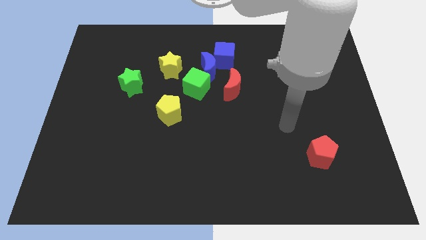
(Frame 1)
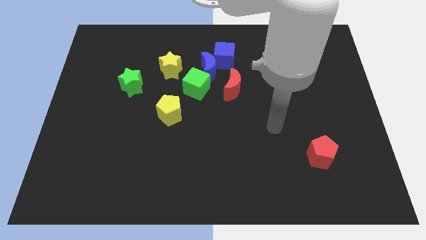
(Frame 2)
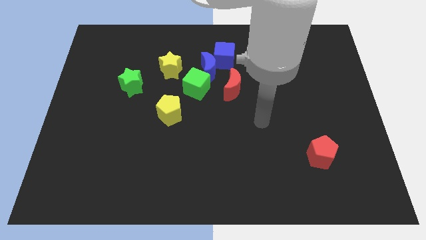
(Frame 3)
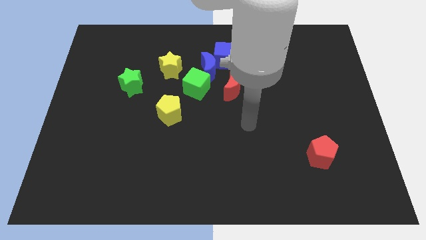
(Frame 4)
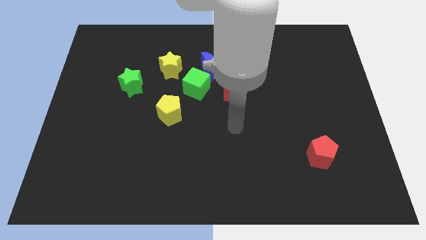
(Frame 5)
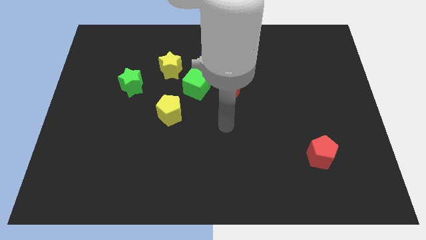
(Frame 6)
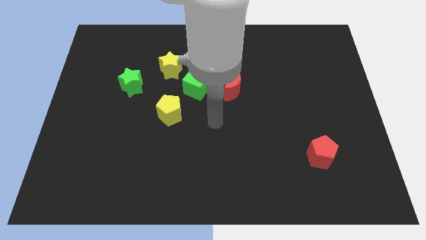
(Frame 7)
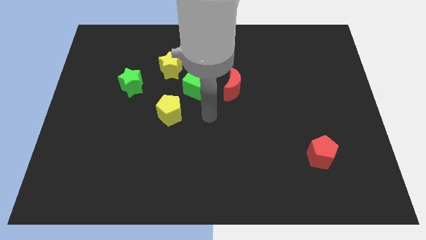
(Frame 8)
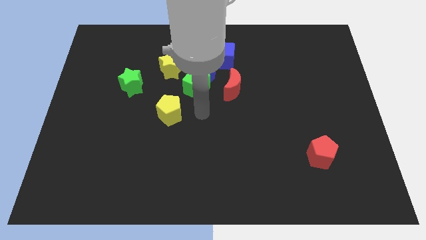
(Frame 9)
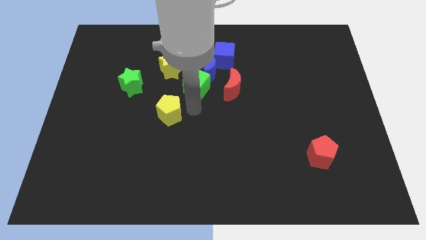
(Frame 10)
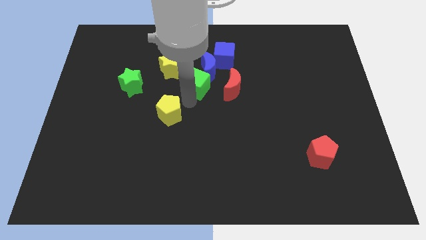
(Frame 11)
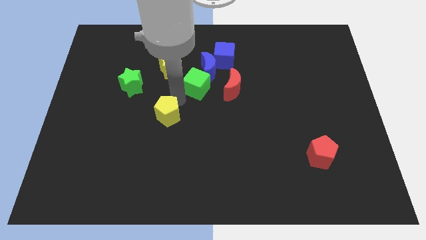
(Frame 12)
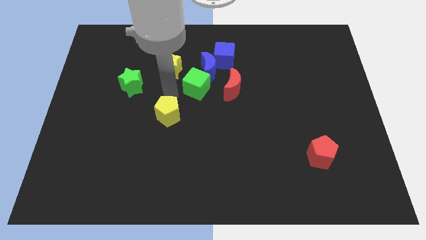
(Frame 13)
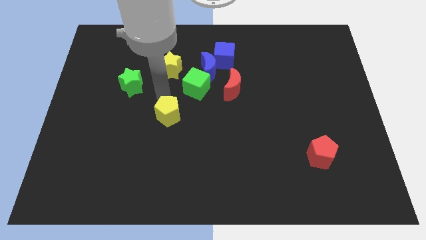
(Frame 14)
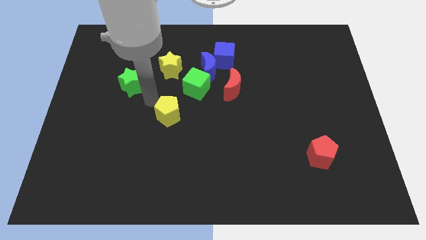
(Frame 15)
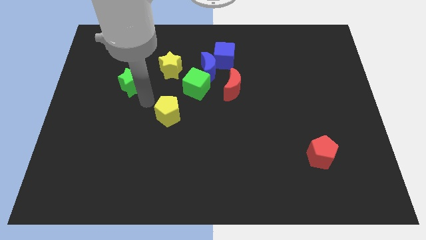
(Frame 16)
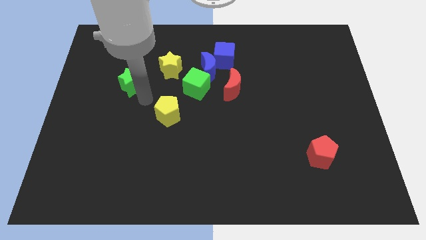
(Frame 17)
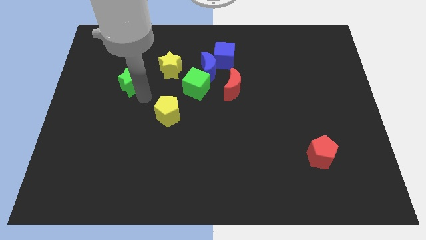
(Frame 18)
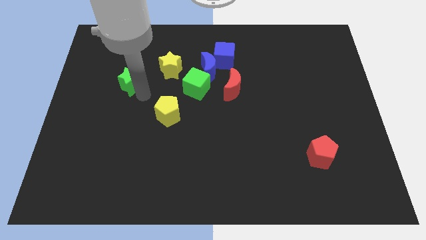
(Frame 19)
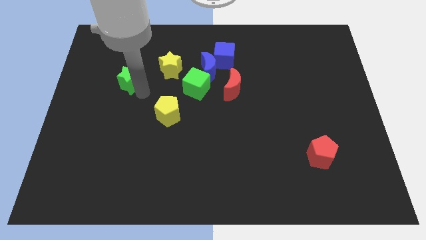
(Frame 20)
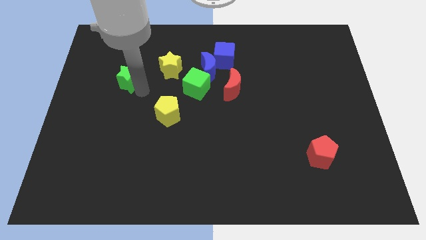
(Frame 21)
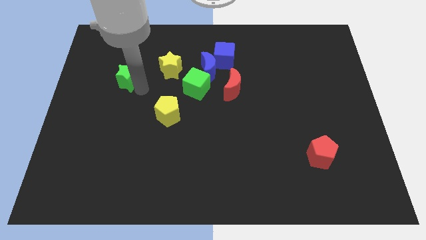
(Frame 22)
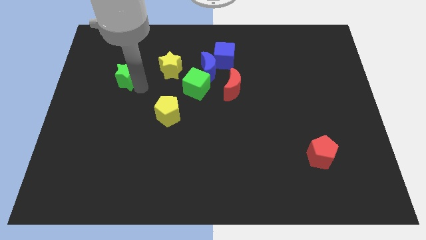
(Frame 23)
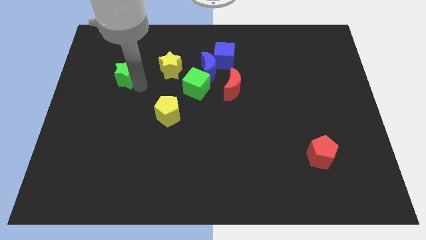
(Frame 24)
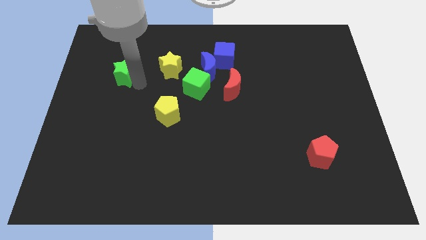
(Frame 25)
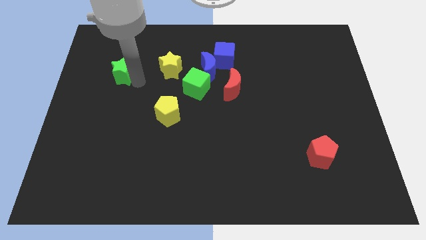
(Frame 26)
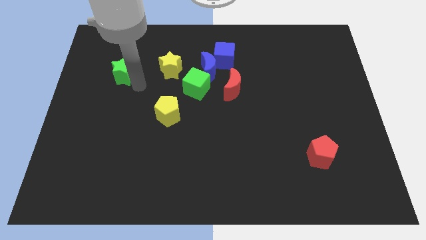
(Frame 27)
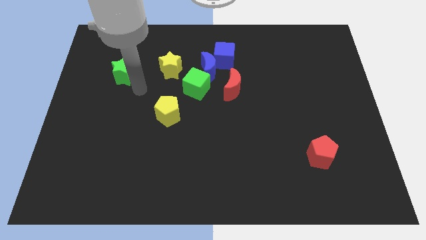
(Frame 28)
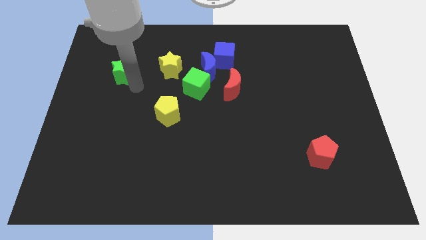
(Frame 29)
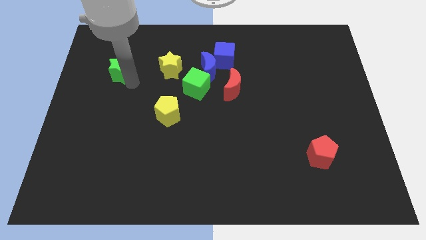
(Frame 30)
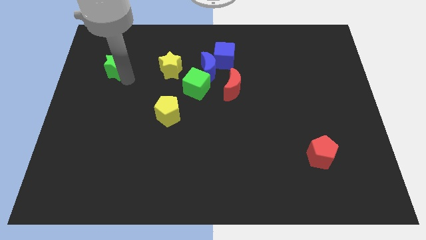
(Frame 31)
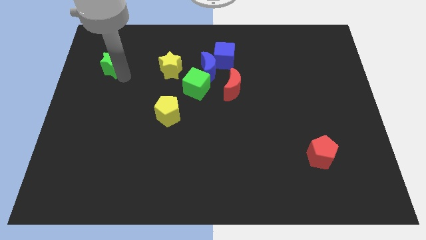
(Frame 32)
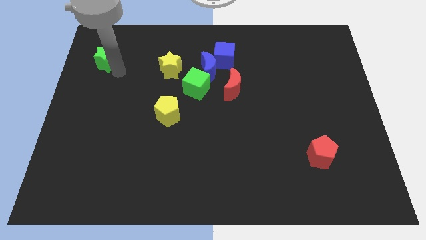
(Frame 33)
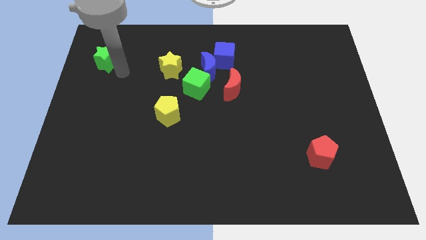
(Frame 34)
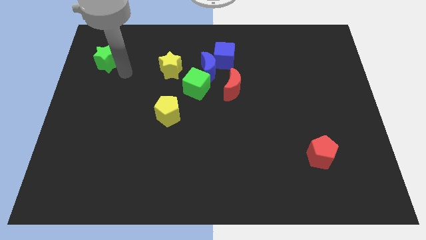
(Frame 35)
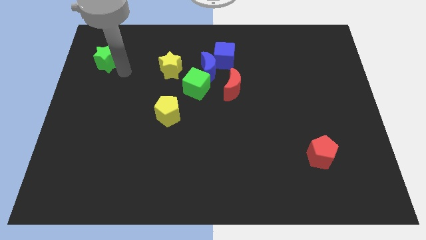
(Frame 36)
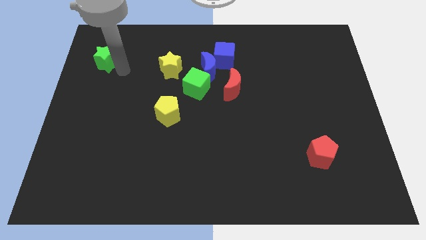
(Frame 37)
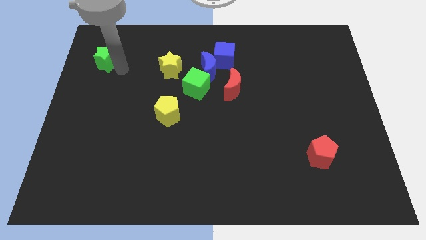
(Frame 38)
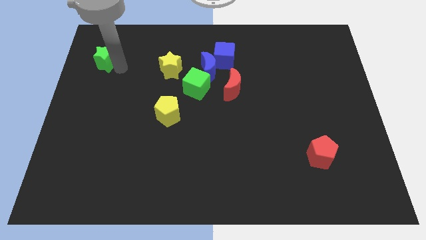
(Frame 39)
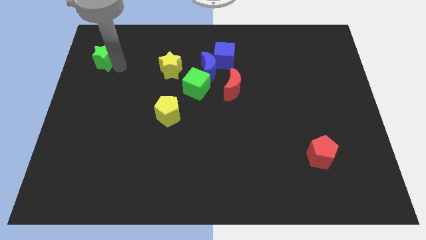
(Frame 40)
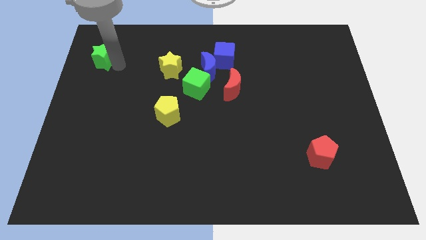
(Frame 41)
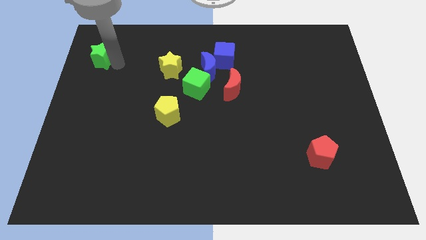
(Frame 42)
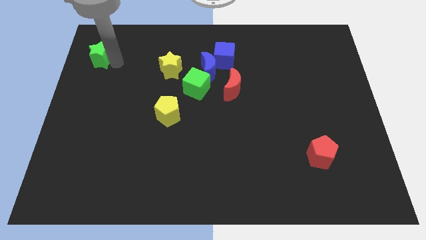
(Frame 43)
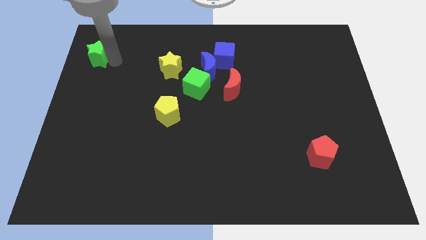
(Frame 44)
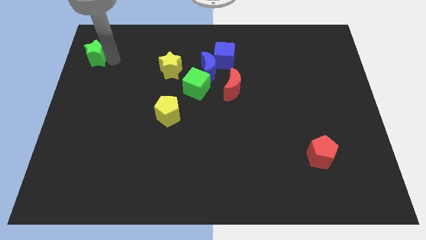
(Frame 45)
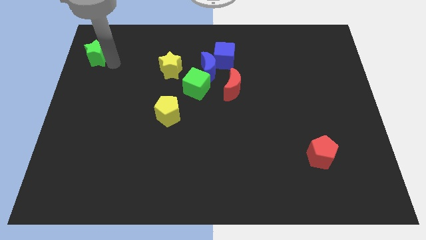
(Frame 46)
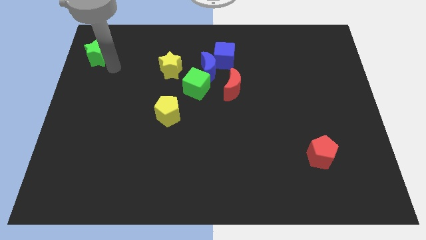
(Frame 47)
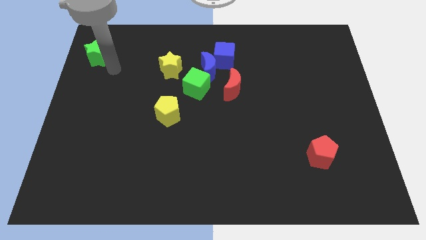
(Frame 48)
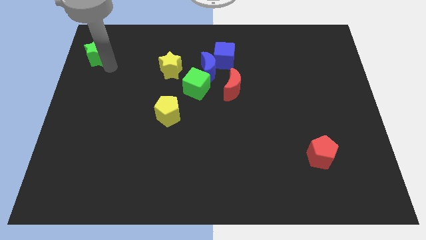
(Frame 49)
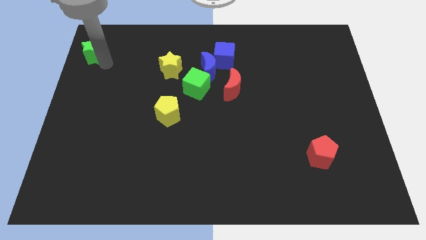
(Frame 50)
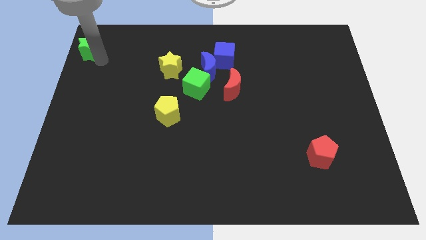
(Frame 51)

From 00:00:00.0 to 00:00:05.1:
slide the green star to the upper left corner

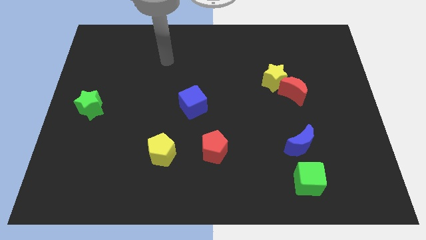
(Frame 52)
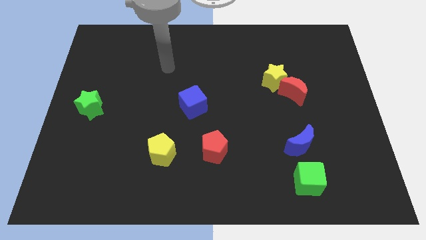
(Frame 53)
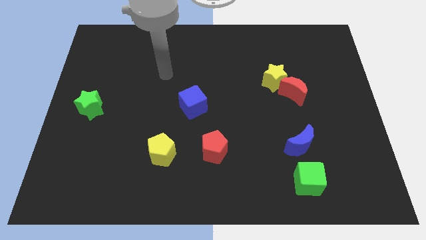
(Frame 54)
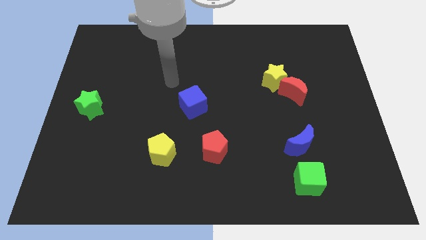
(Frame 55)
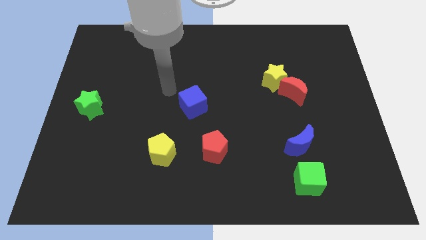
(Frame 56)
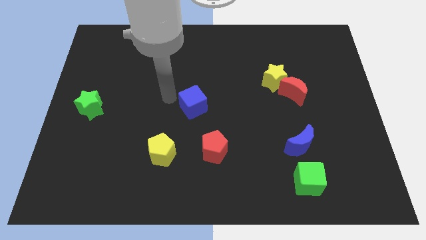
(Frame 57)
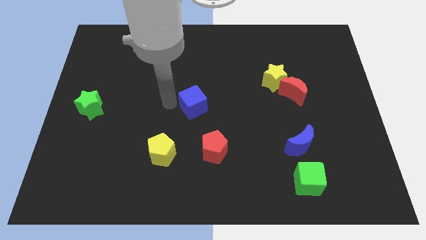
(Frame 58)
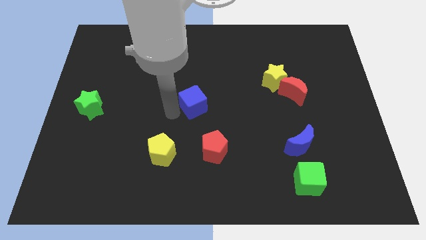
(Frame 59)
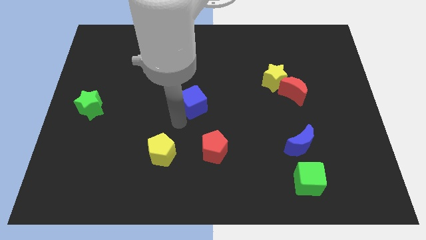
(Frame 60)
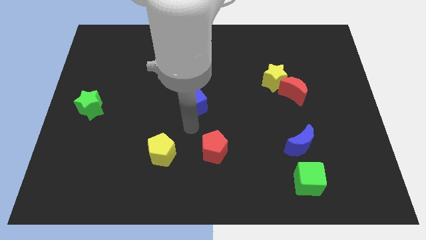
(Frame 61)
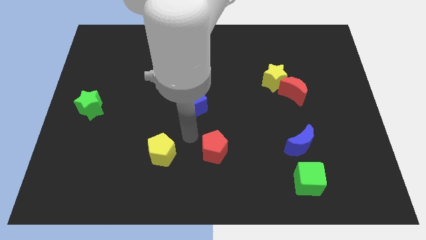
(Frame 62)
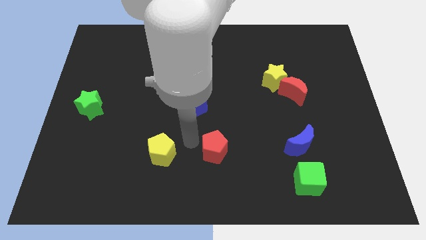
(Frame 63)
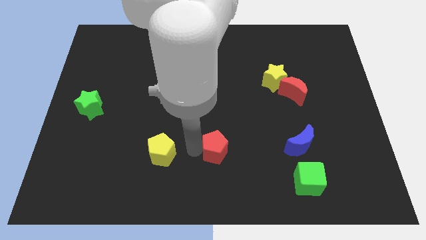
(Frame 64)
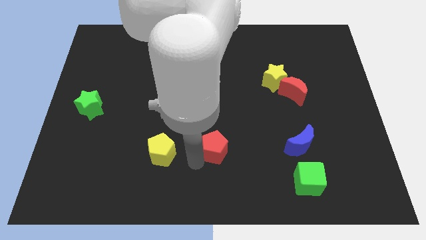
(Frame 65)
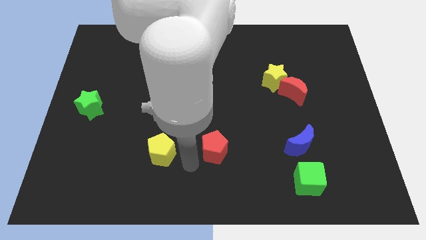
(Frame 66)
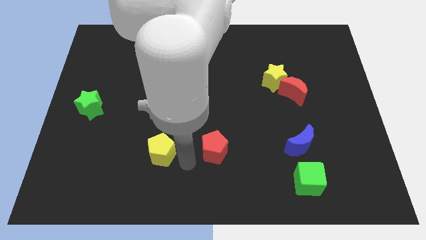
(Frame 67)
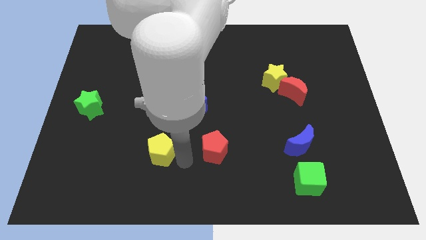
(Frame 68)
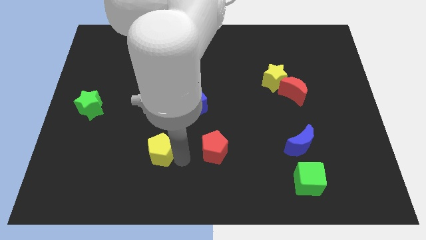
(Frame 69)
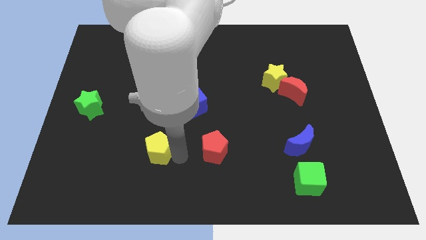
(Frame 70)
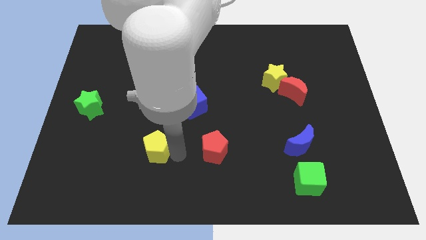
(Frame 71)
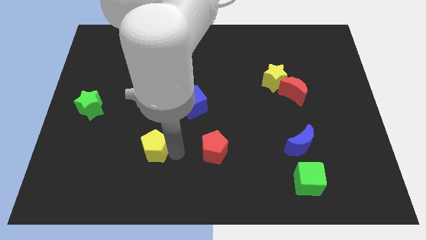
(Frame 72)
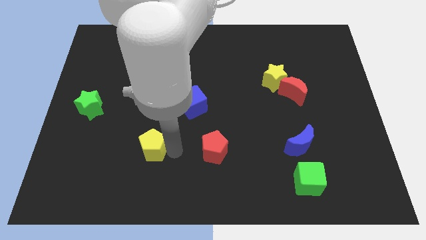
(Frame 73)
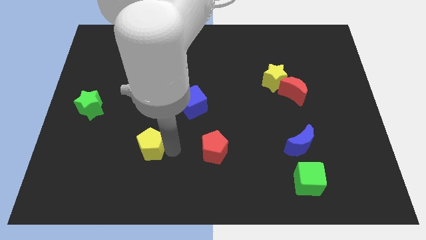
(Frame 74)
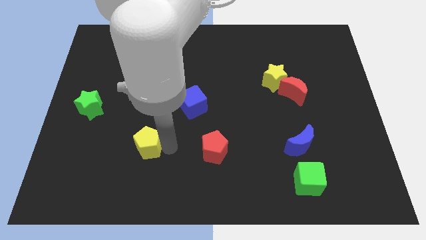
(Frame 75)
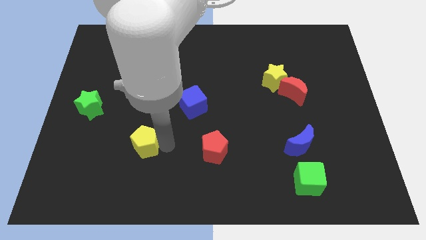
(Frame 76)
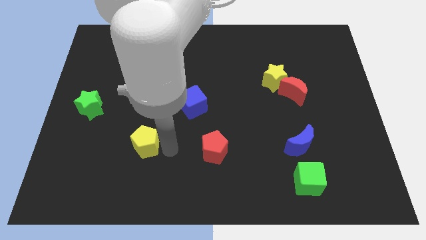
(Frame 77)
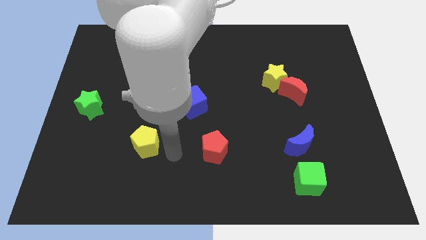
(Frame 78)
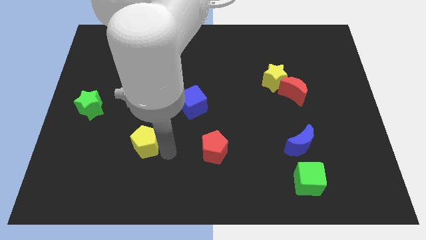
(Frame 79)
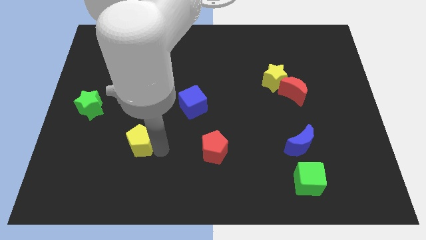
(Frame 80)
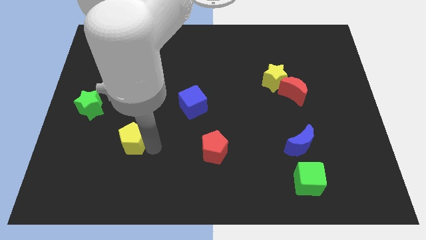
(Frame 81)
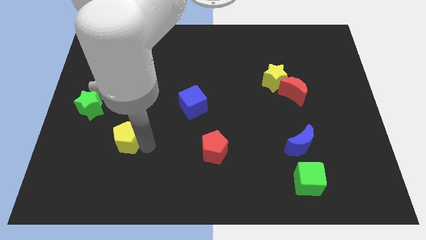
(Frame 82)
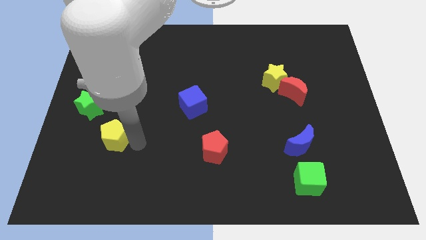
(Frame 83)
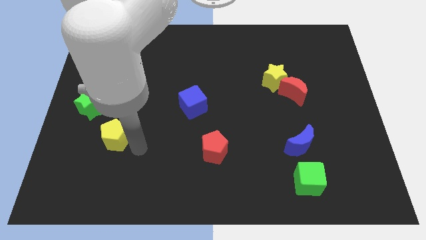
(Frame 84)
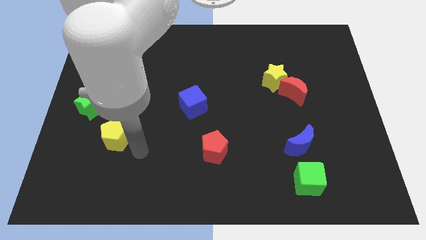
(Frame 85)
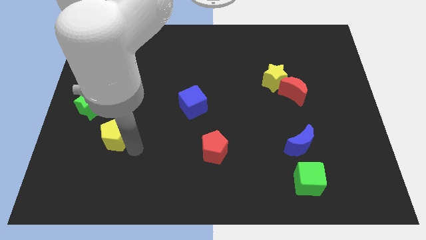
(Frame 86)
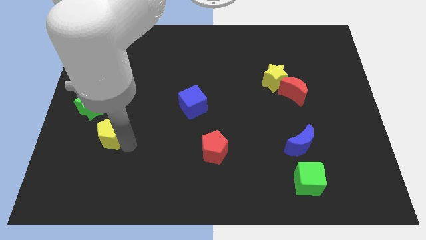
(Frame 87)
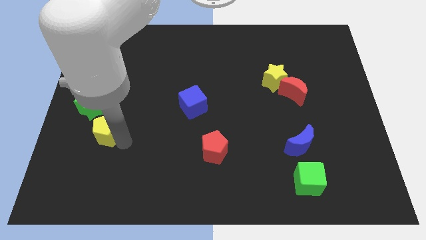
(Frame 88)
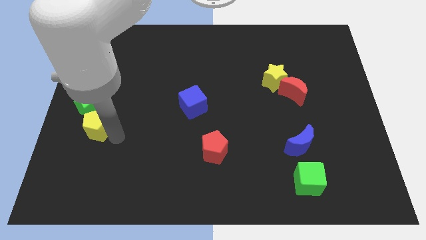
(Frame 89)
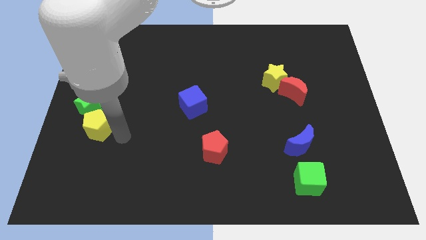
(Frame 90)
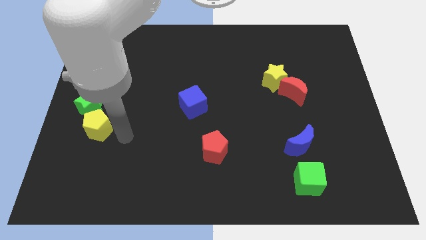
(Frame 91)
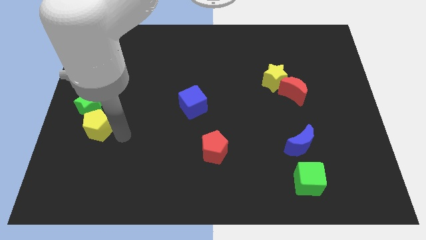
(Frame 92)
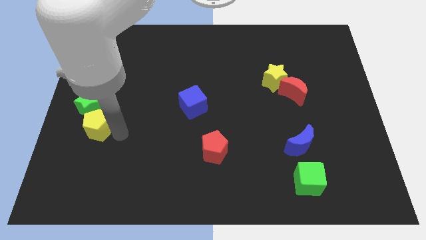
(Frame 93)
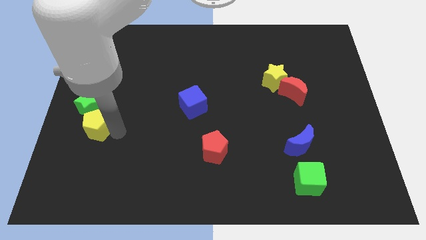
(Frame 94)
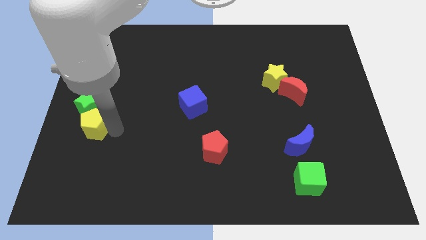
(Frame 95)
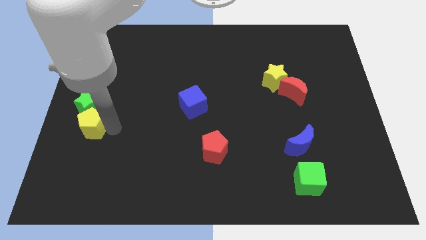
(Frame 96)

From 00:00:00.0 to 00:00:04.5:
push the yellow pentagon to the center left
